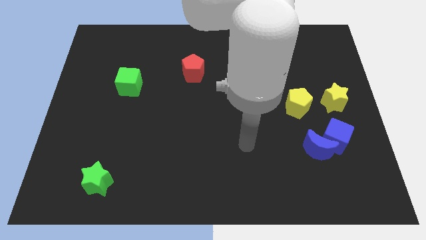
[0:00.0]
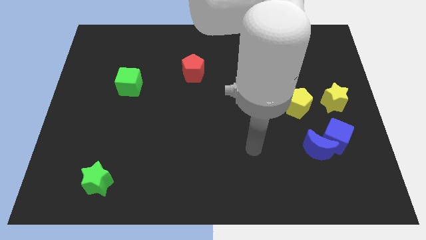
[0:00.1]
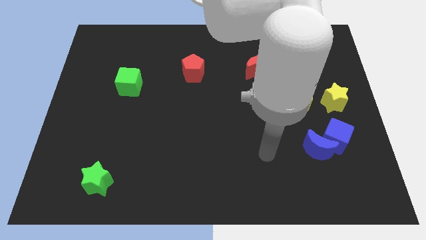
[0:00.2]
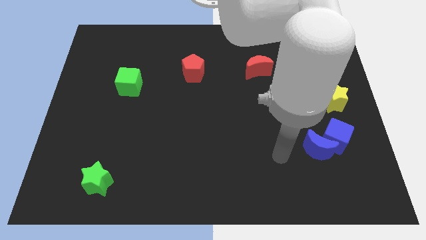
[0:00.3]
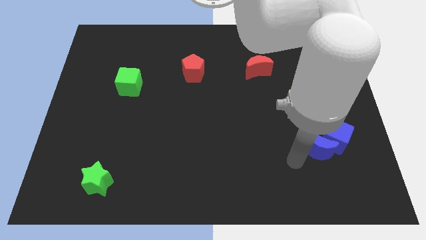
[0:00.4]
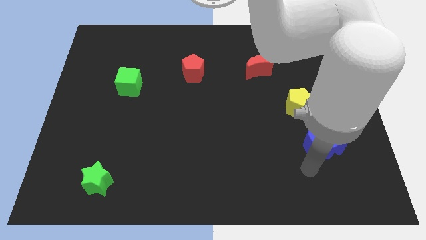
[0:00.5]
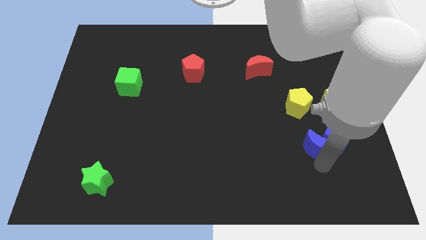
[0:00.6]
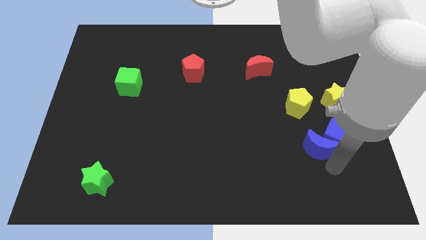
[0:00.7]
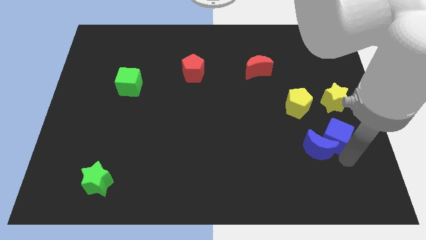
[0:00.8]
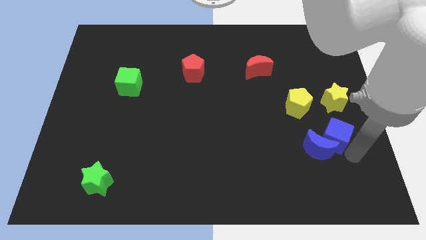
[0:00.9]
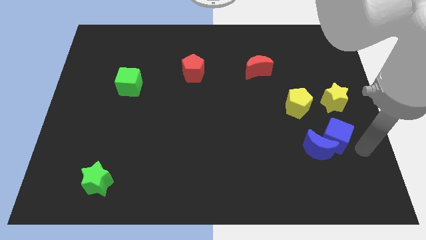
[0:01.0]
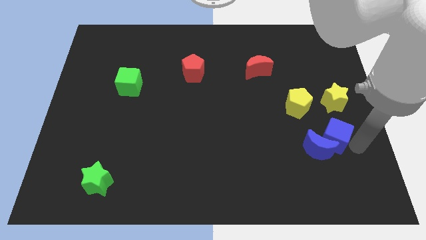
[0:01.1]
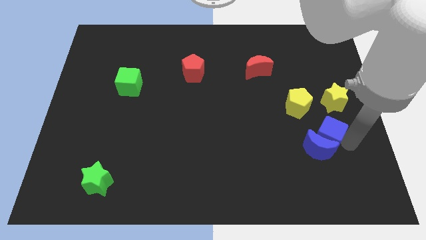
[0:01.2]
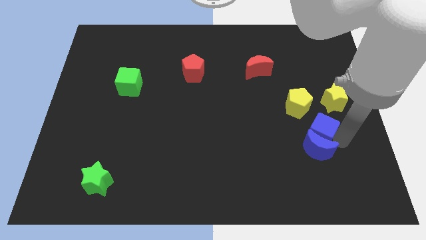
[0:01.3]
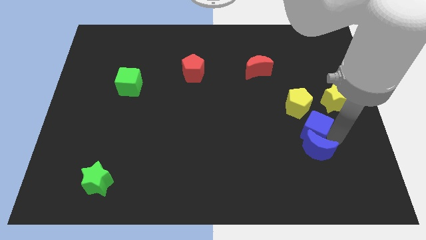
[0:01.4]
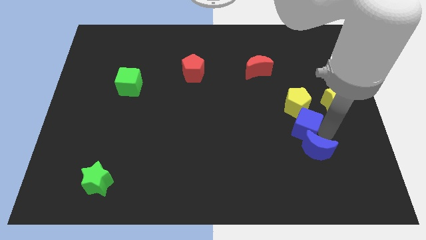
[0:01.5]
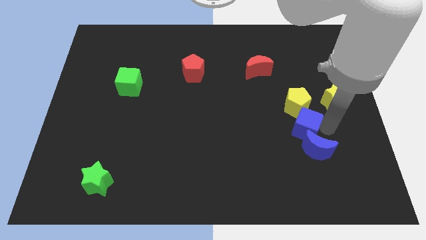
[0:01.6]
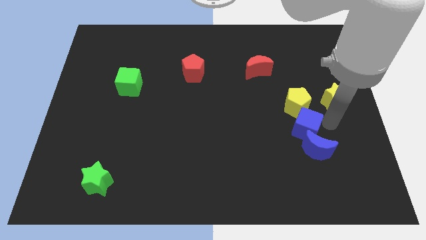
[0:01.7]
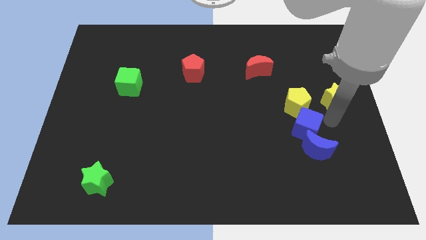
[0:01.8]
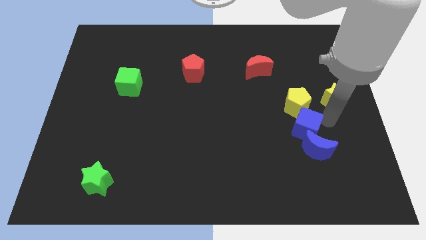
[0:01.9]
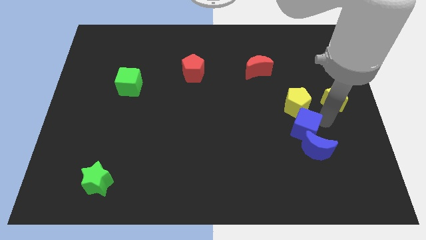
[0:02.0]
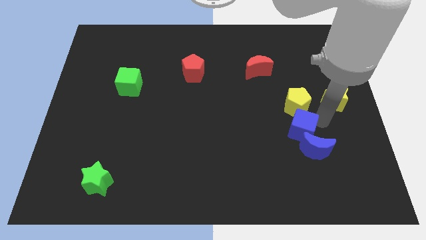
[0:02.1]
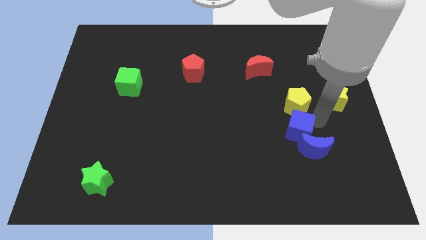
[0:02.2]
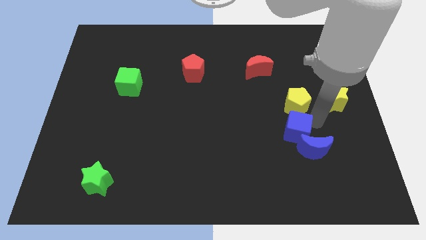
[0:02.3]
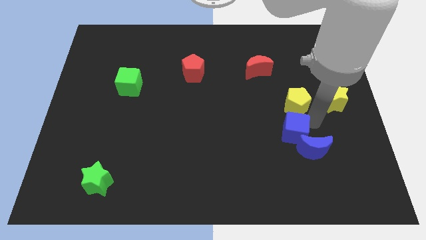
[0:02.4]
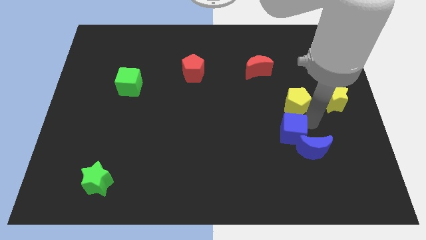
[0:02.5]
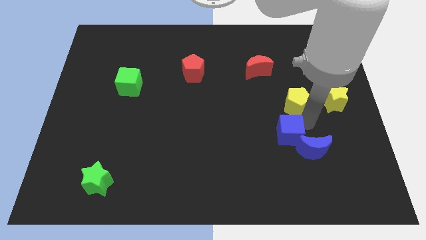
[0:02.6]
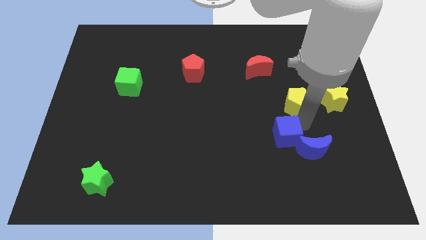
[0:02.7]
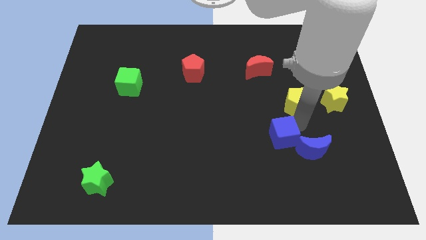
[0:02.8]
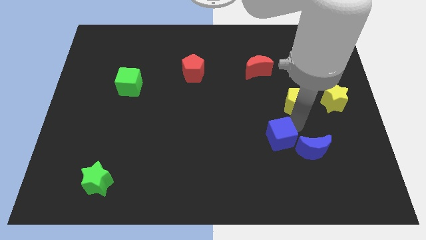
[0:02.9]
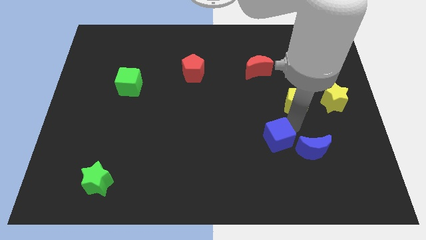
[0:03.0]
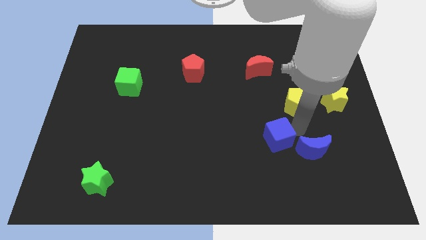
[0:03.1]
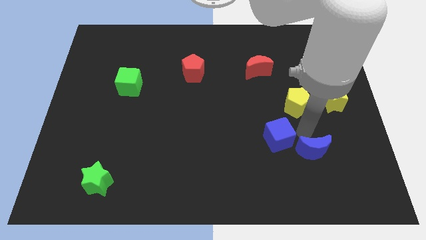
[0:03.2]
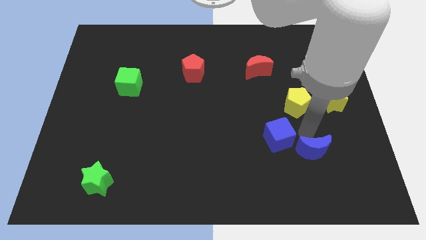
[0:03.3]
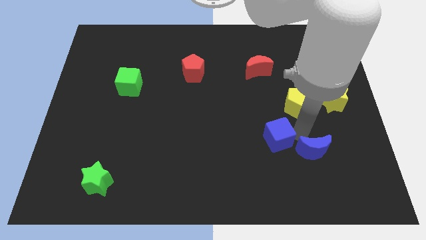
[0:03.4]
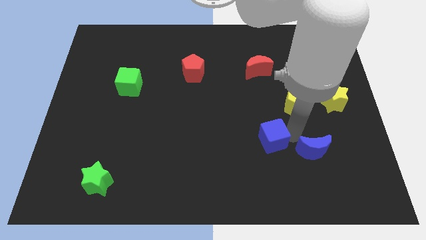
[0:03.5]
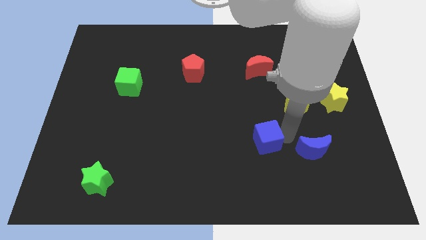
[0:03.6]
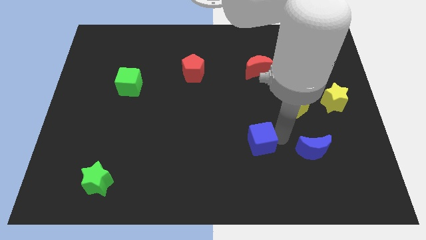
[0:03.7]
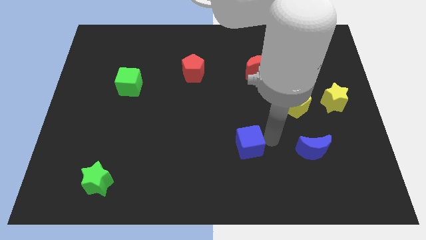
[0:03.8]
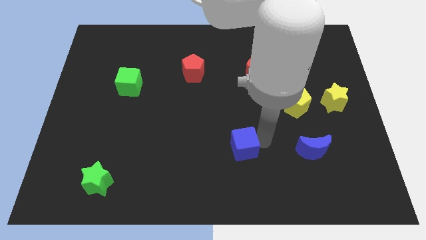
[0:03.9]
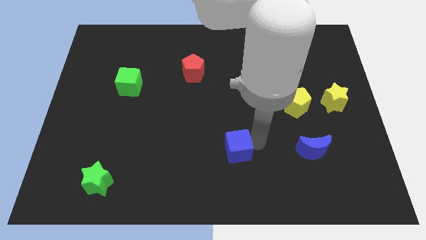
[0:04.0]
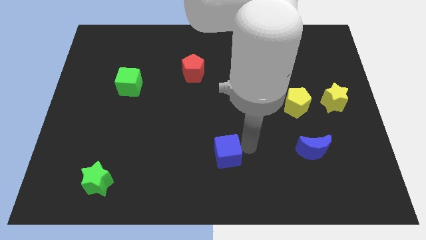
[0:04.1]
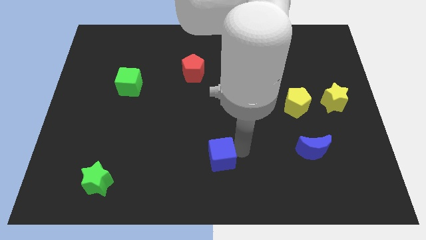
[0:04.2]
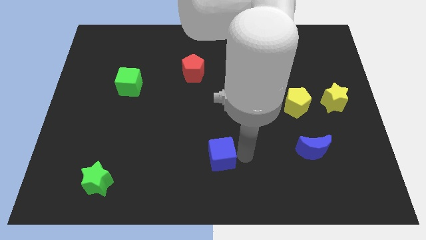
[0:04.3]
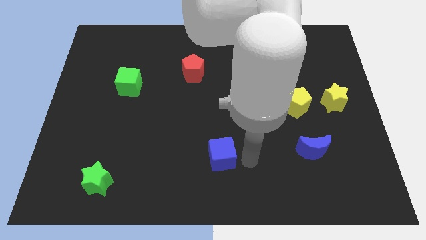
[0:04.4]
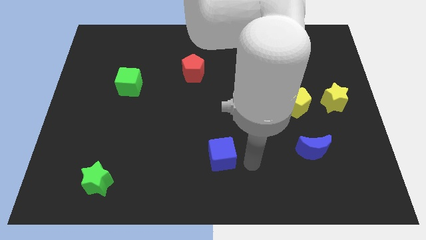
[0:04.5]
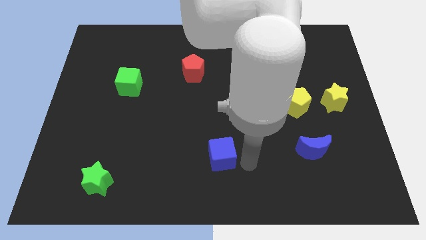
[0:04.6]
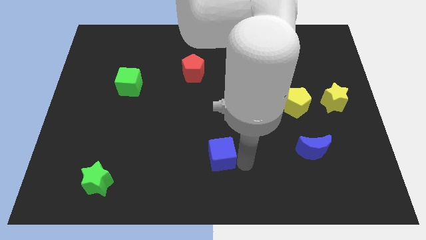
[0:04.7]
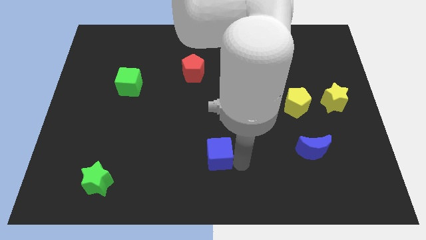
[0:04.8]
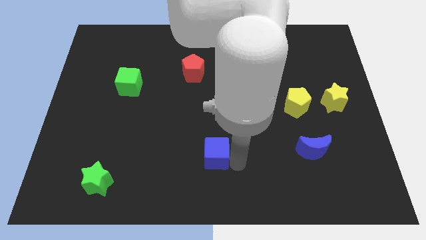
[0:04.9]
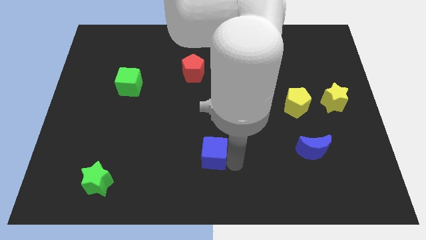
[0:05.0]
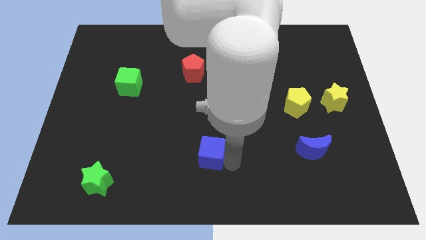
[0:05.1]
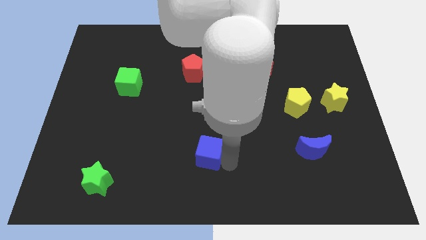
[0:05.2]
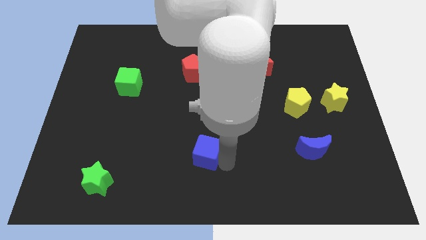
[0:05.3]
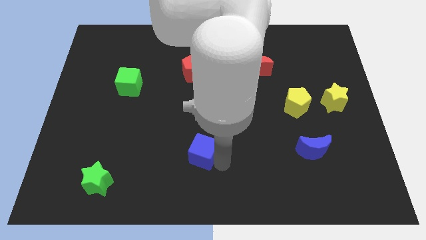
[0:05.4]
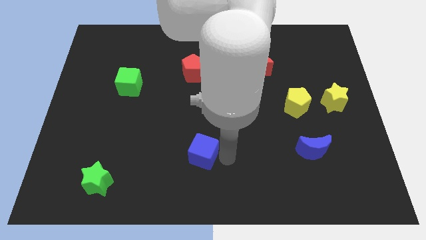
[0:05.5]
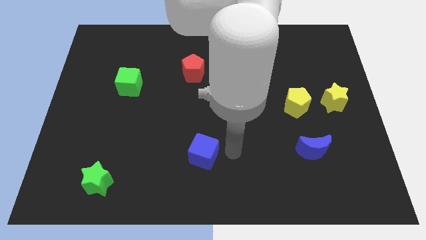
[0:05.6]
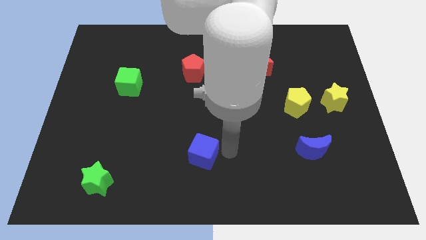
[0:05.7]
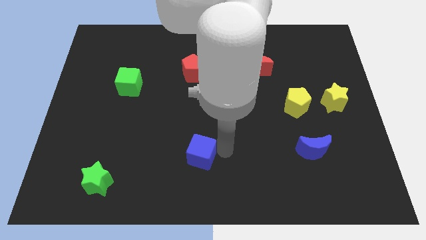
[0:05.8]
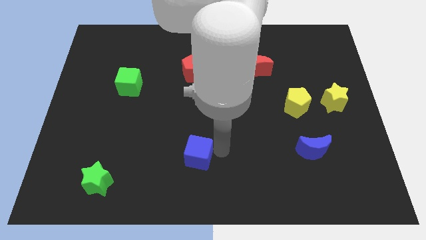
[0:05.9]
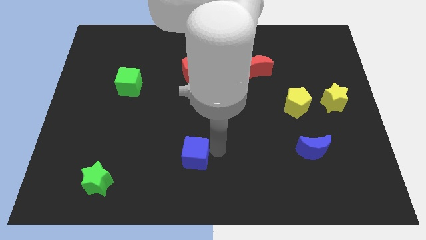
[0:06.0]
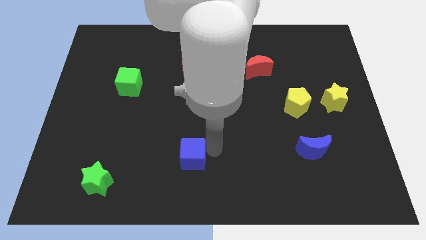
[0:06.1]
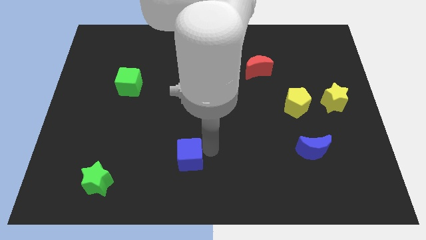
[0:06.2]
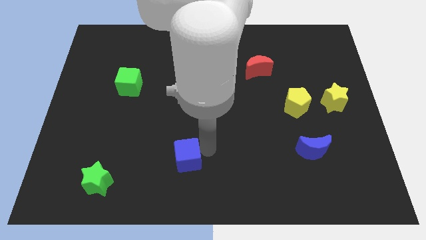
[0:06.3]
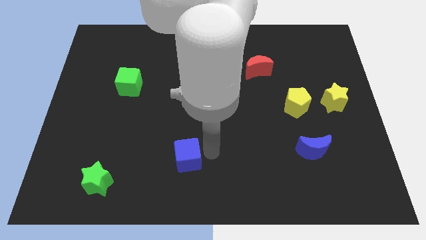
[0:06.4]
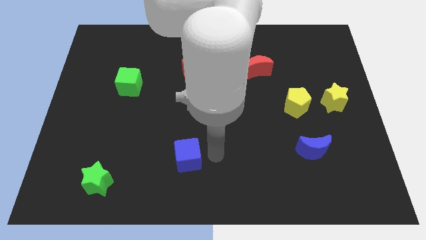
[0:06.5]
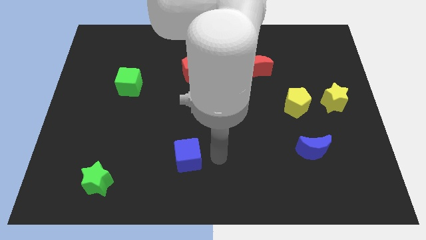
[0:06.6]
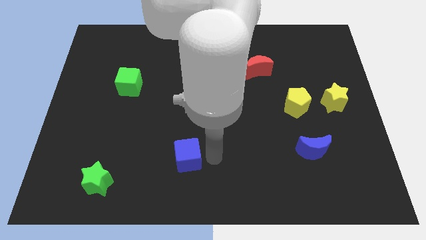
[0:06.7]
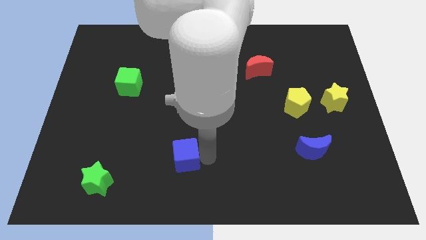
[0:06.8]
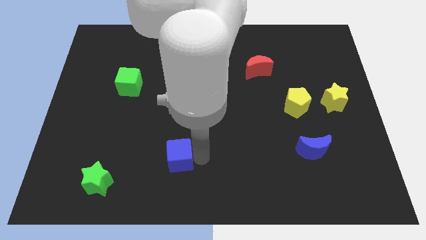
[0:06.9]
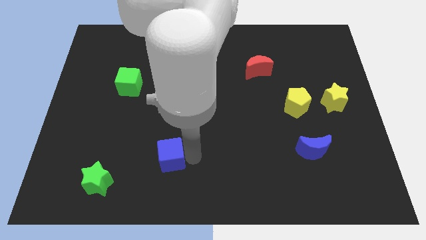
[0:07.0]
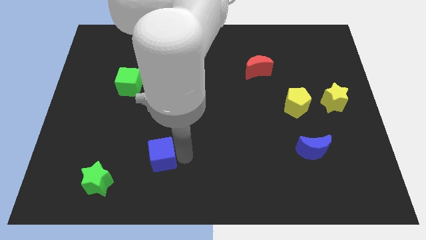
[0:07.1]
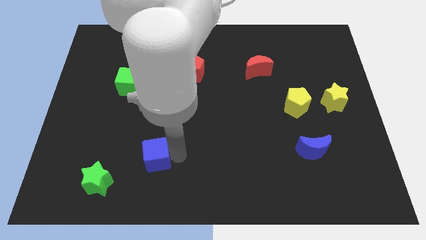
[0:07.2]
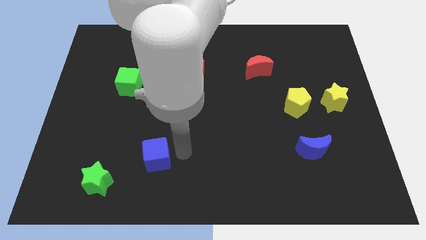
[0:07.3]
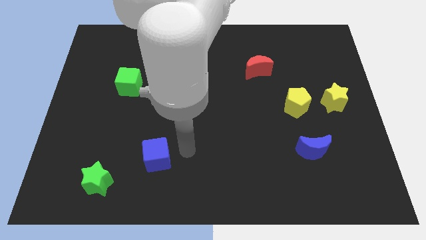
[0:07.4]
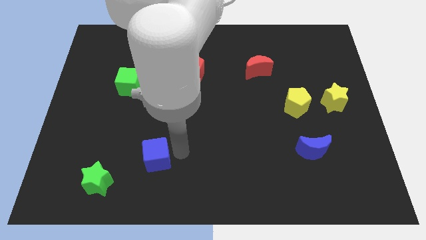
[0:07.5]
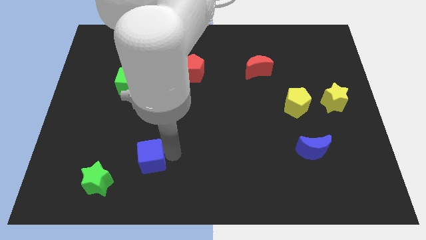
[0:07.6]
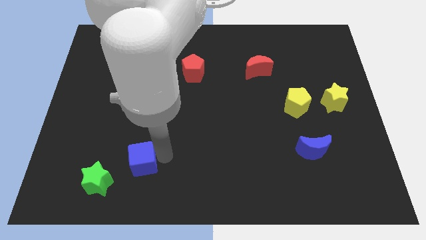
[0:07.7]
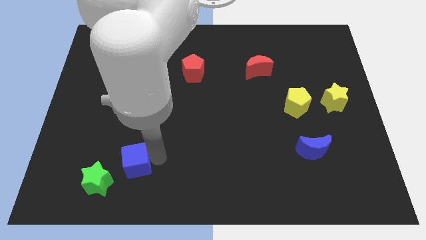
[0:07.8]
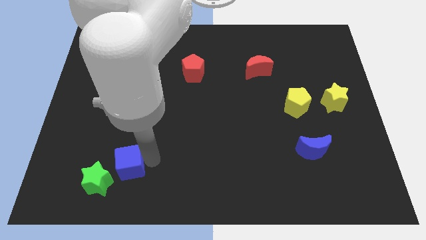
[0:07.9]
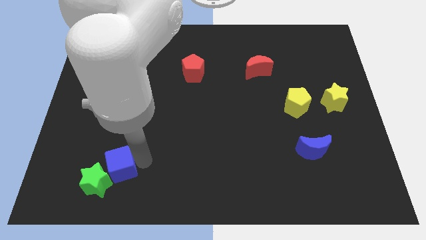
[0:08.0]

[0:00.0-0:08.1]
push the blue cube to the green star
